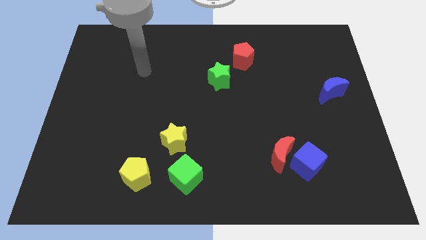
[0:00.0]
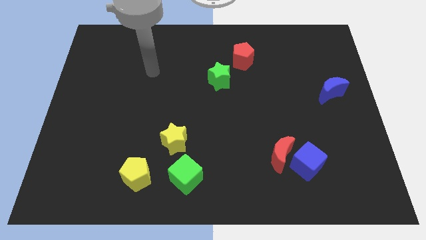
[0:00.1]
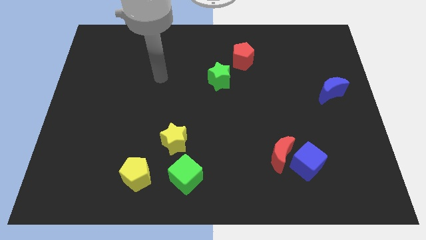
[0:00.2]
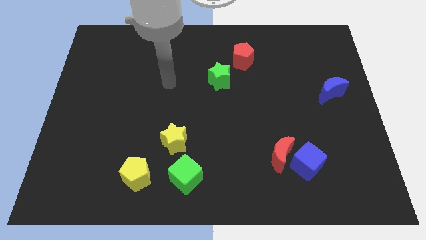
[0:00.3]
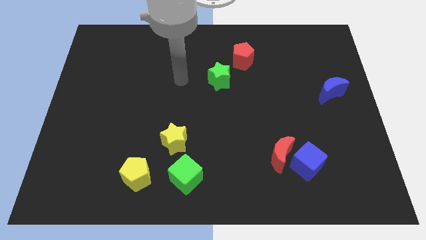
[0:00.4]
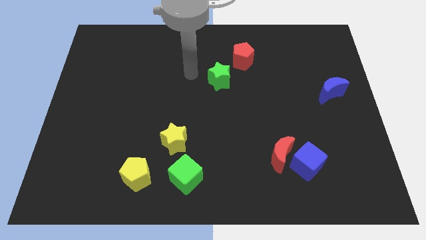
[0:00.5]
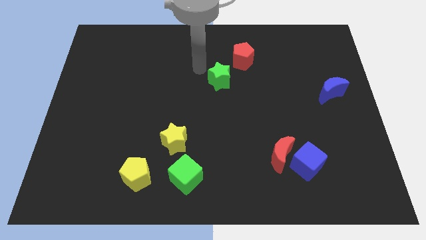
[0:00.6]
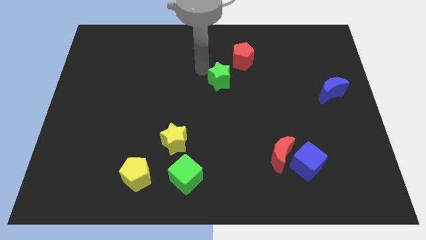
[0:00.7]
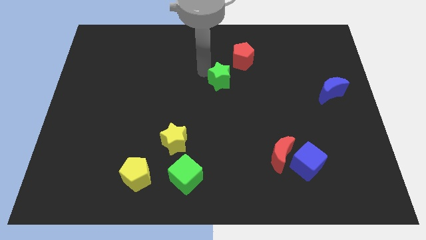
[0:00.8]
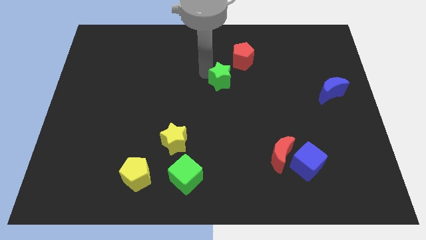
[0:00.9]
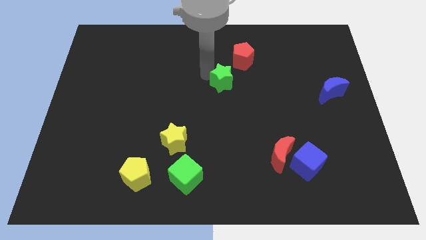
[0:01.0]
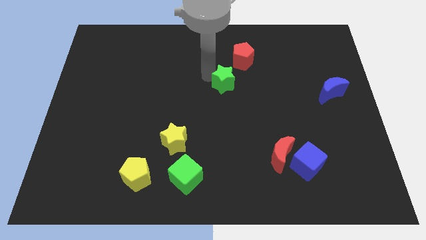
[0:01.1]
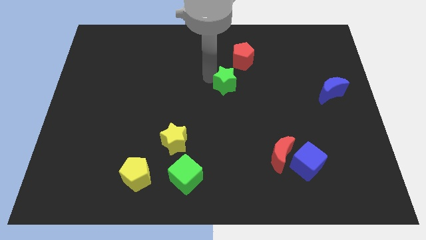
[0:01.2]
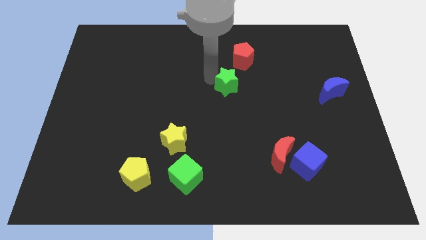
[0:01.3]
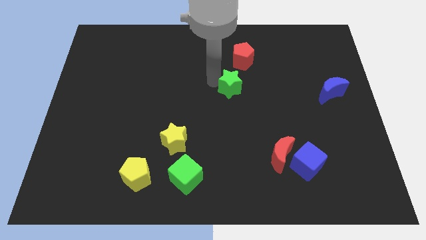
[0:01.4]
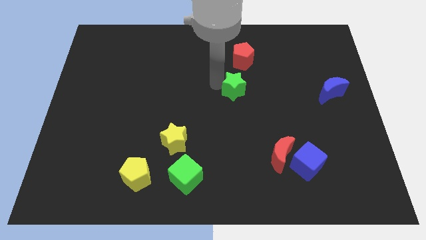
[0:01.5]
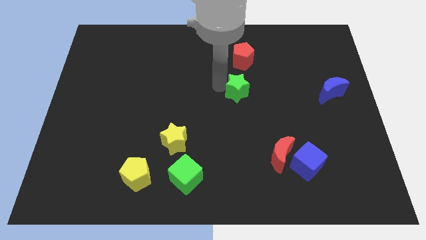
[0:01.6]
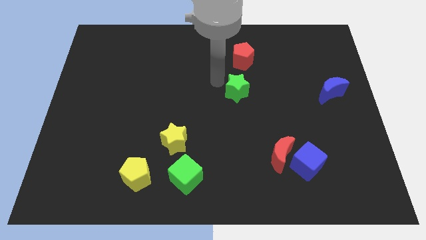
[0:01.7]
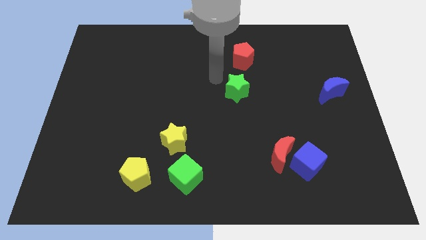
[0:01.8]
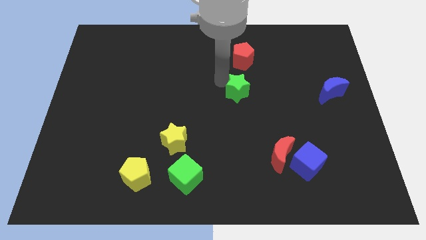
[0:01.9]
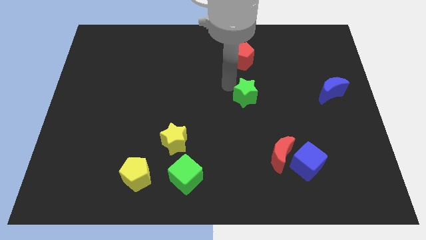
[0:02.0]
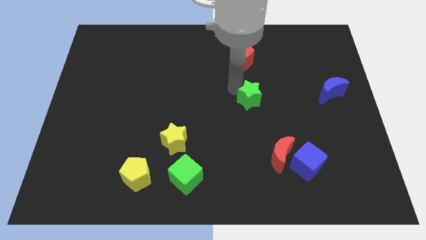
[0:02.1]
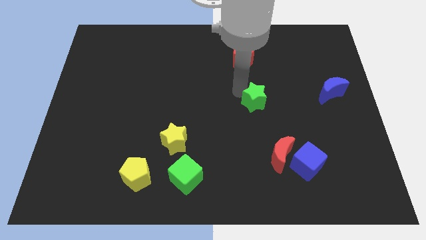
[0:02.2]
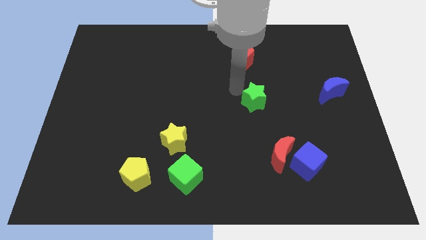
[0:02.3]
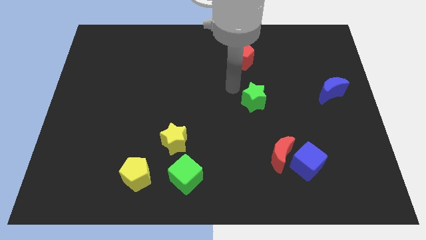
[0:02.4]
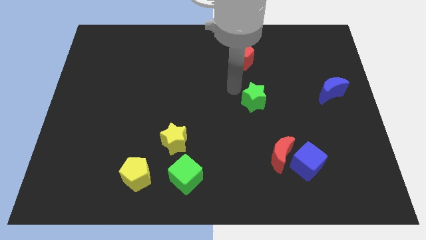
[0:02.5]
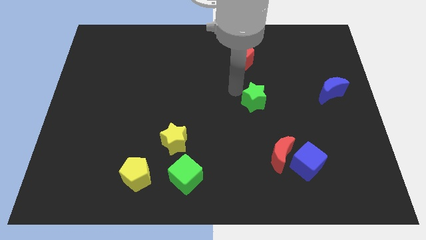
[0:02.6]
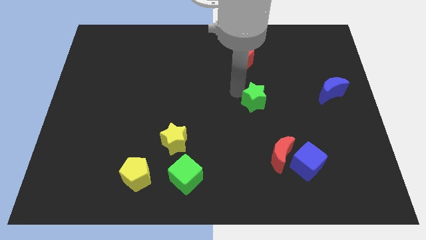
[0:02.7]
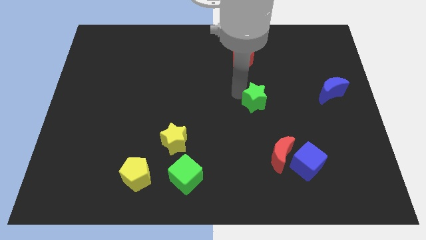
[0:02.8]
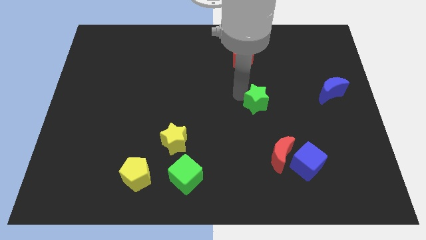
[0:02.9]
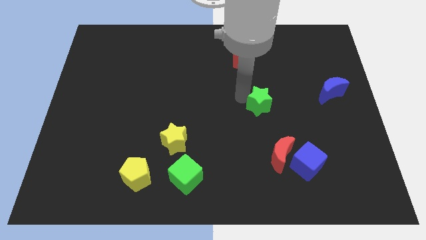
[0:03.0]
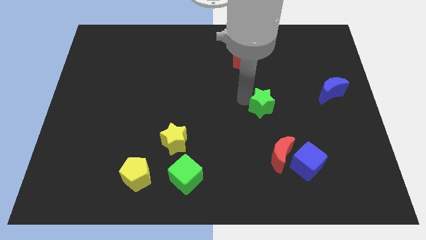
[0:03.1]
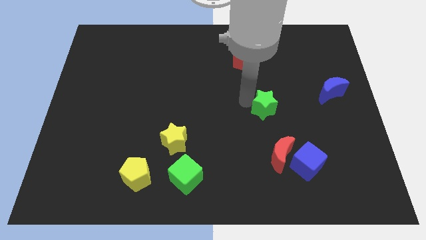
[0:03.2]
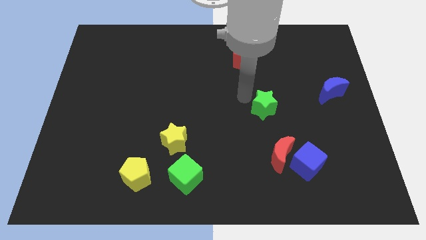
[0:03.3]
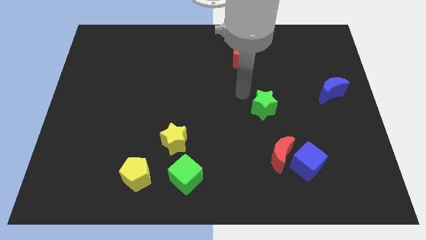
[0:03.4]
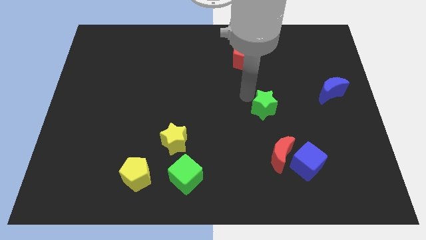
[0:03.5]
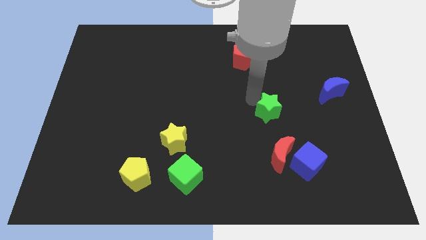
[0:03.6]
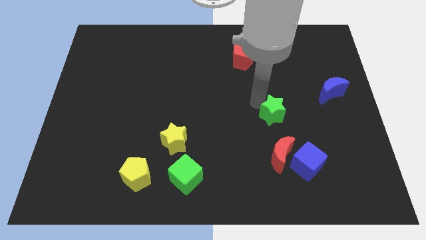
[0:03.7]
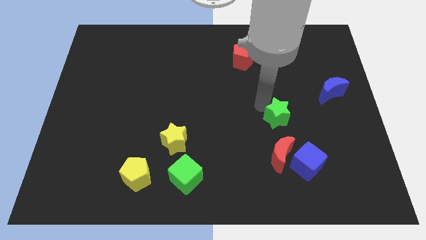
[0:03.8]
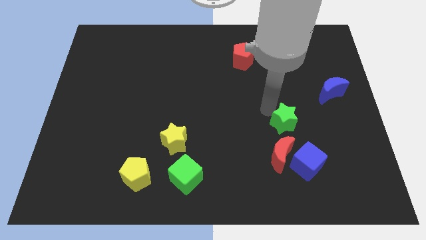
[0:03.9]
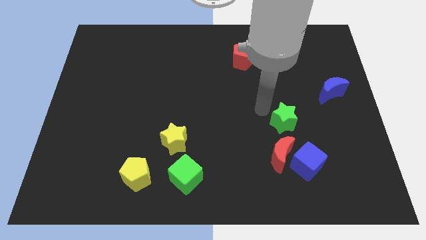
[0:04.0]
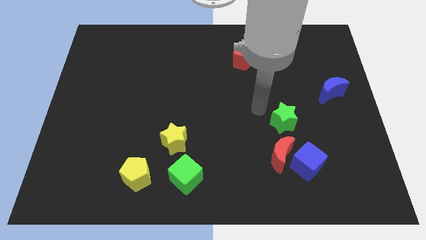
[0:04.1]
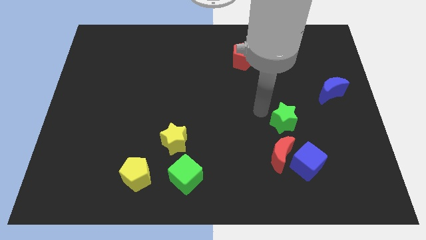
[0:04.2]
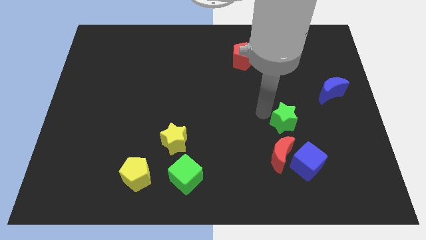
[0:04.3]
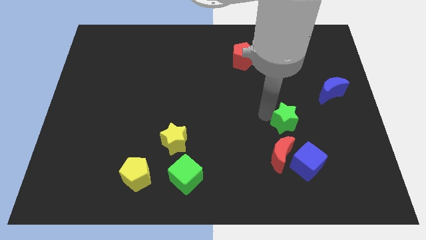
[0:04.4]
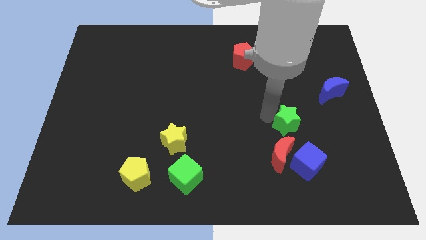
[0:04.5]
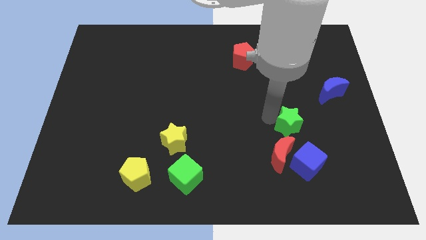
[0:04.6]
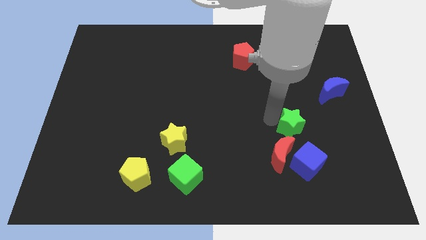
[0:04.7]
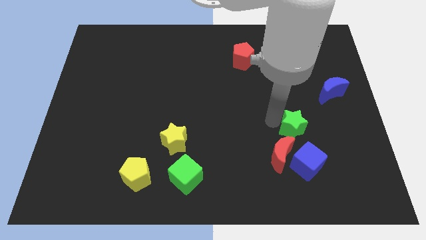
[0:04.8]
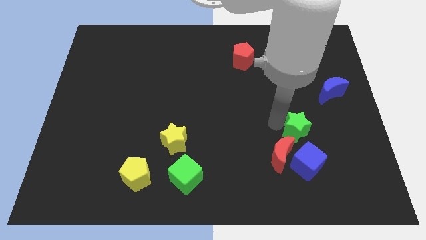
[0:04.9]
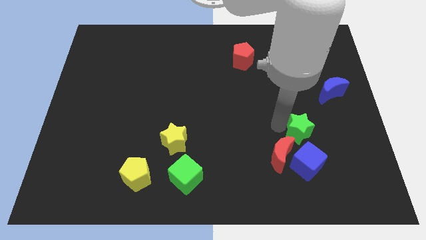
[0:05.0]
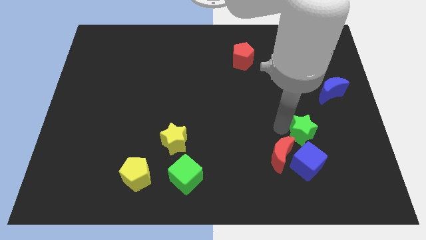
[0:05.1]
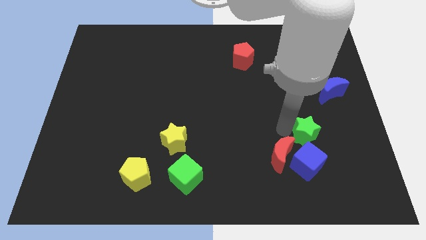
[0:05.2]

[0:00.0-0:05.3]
push the green star to the top right side of the blue cube

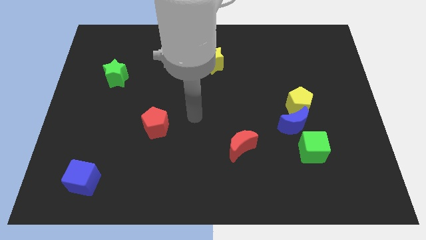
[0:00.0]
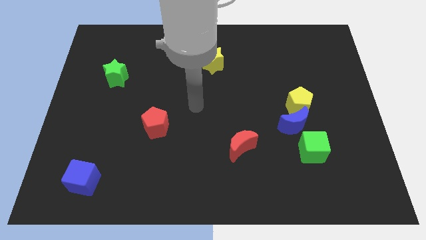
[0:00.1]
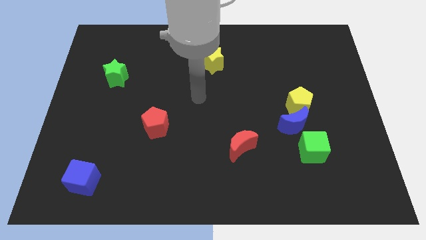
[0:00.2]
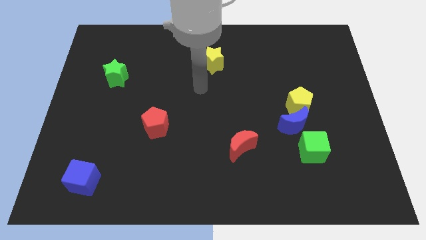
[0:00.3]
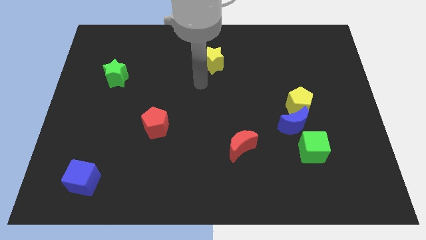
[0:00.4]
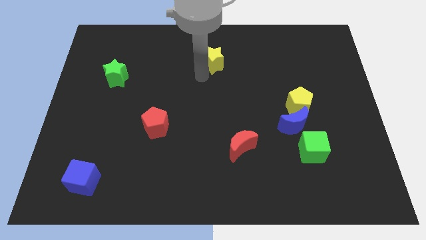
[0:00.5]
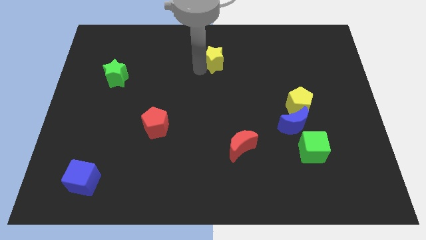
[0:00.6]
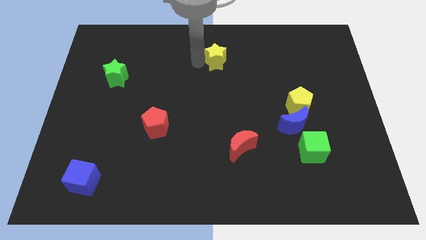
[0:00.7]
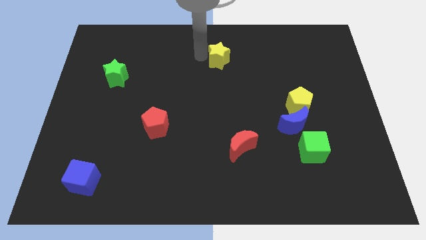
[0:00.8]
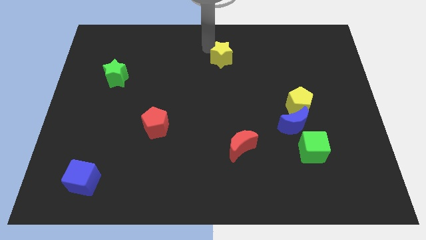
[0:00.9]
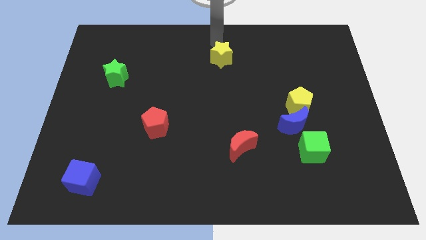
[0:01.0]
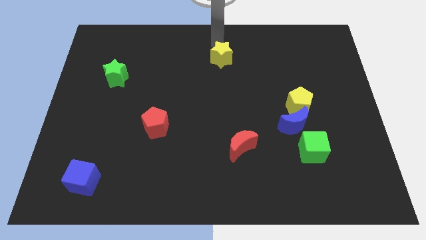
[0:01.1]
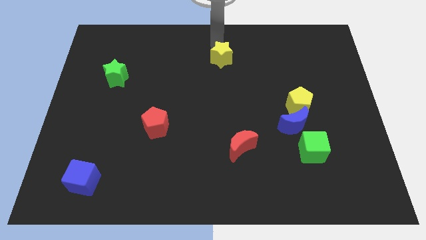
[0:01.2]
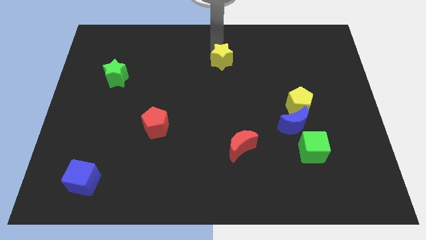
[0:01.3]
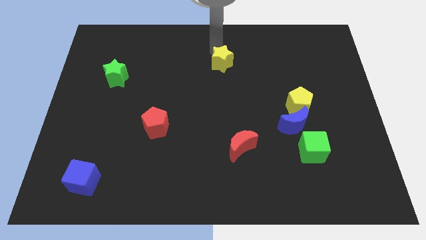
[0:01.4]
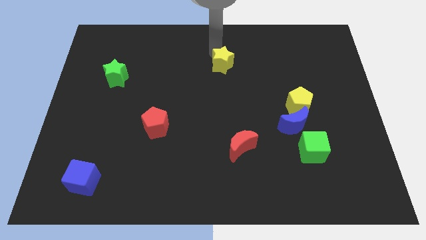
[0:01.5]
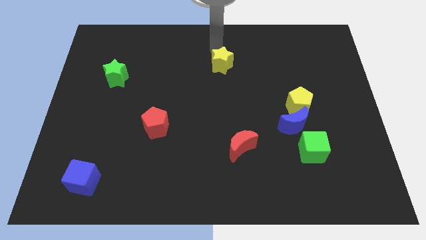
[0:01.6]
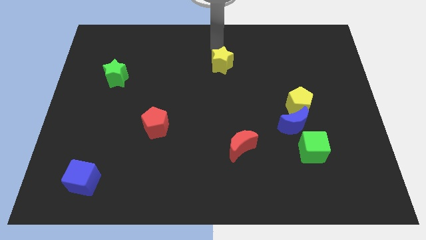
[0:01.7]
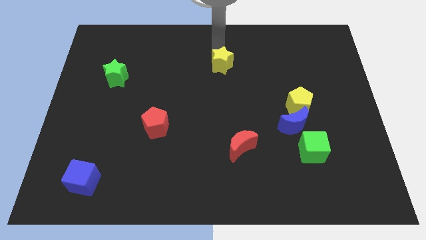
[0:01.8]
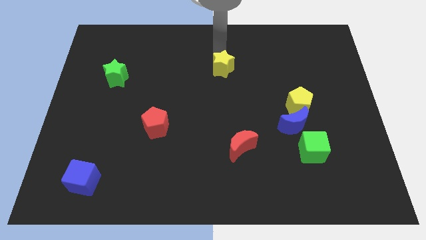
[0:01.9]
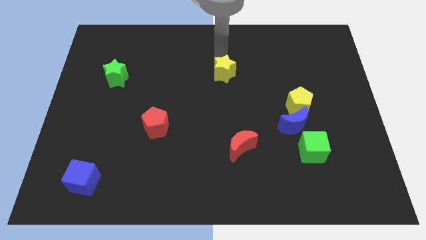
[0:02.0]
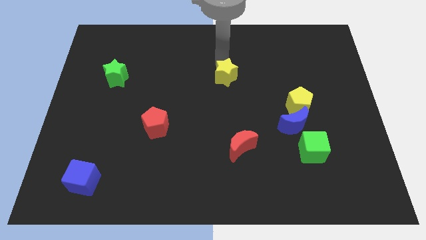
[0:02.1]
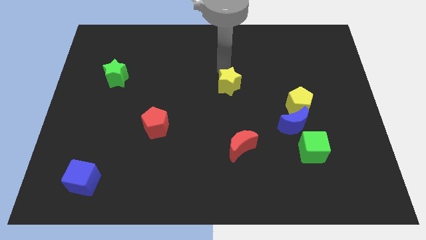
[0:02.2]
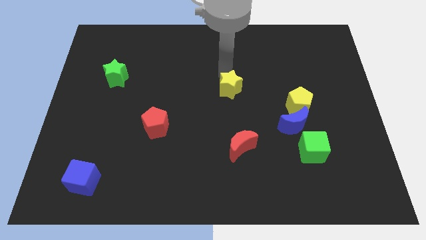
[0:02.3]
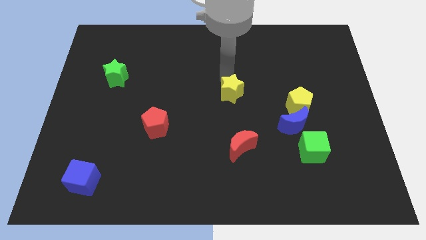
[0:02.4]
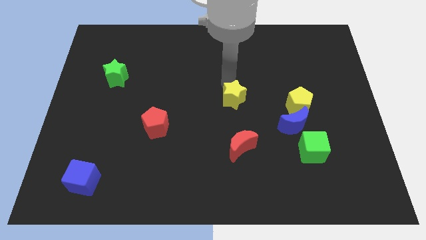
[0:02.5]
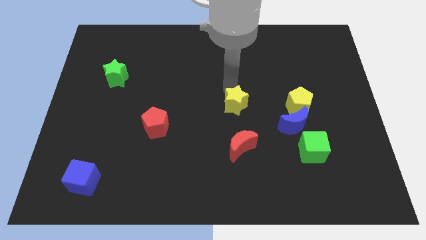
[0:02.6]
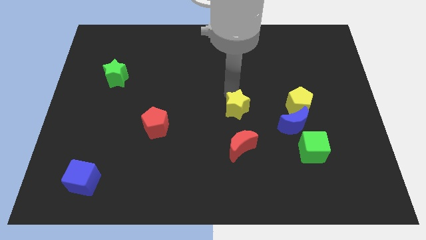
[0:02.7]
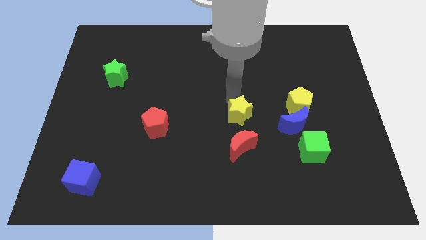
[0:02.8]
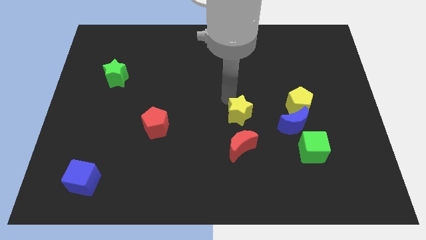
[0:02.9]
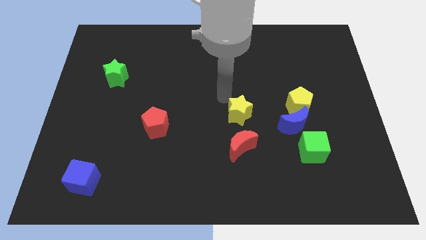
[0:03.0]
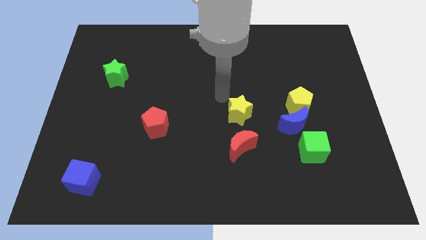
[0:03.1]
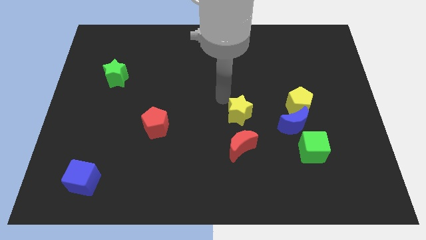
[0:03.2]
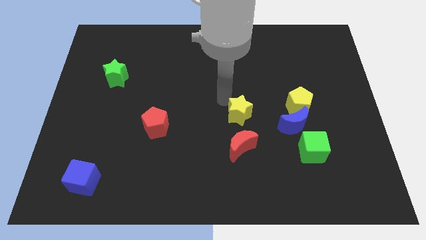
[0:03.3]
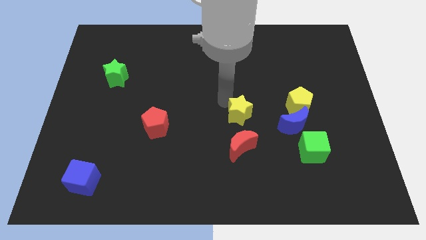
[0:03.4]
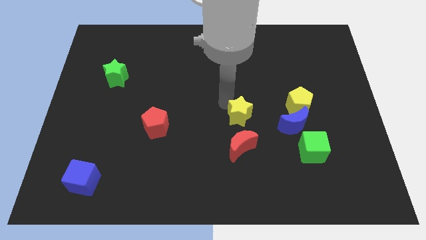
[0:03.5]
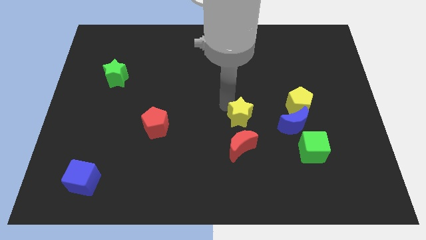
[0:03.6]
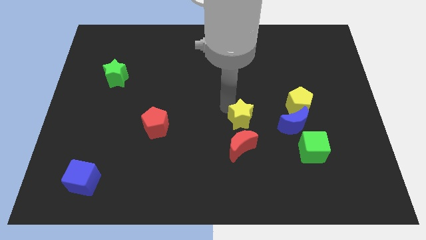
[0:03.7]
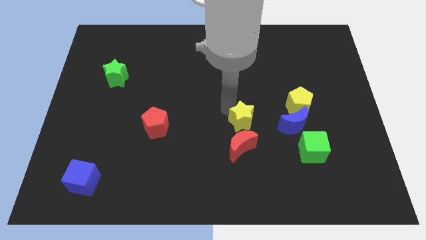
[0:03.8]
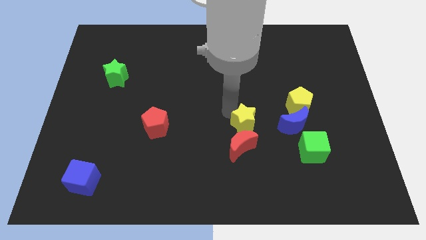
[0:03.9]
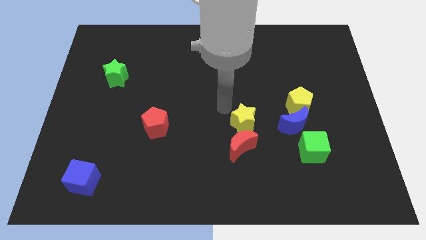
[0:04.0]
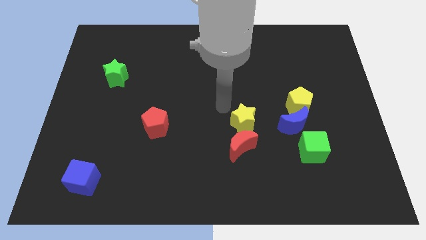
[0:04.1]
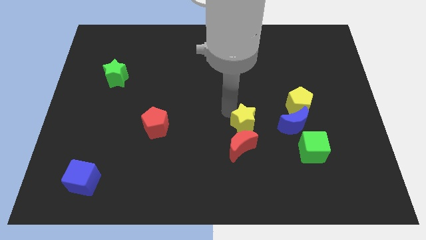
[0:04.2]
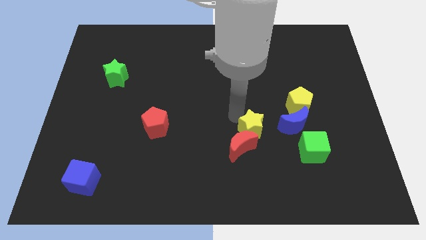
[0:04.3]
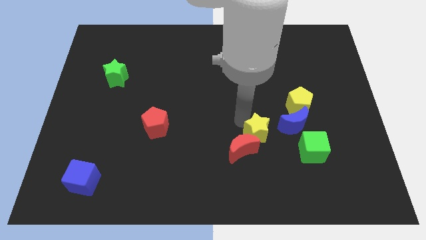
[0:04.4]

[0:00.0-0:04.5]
move the yellow star diagonally down and to the left of the blue moon
